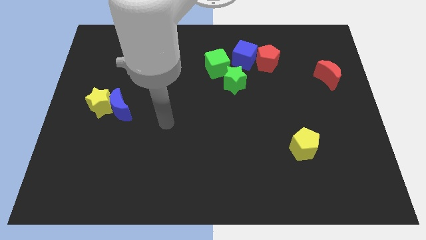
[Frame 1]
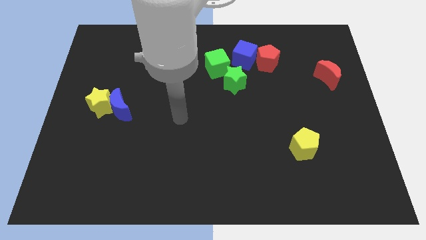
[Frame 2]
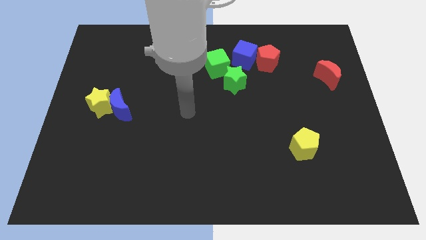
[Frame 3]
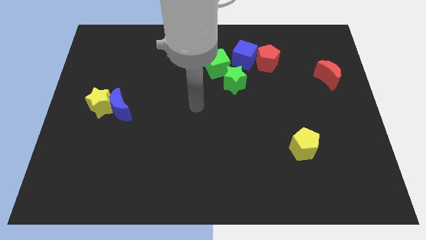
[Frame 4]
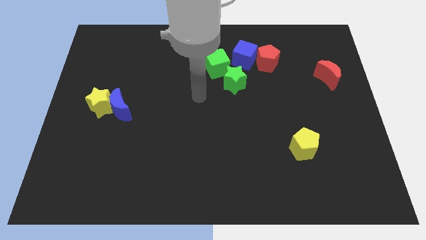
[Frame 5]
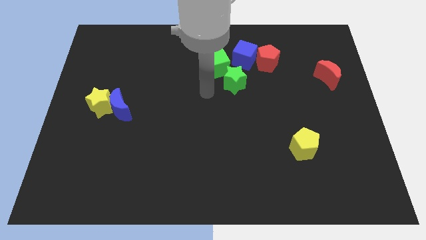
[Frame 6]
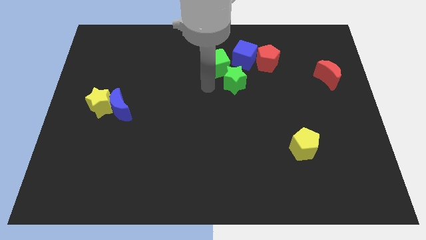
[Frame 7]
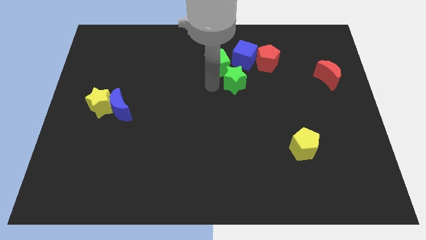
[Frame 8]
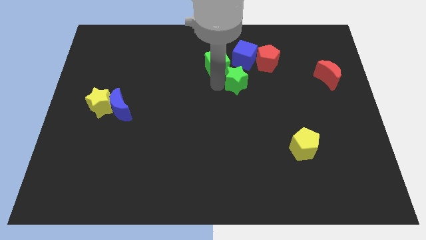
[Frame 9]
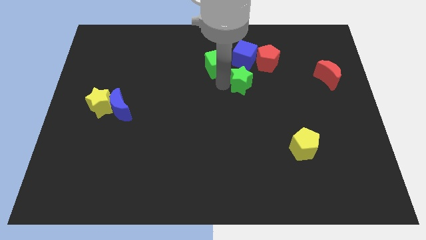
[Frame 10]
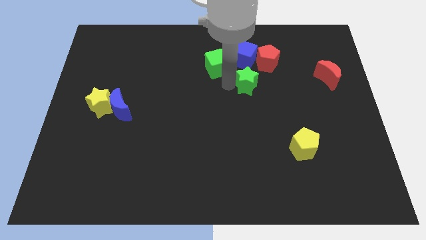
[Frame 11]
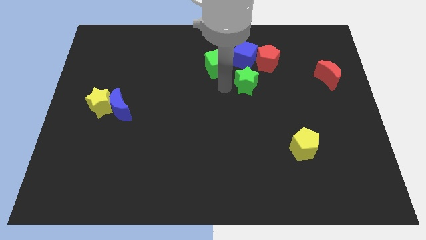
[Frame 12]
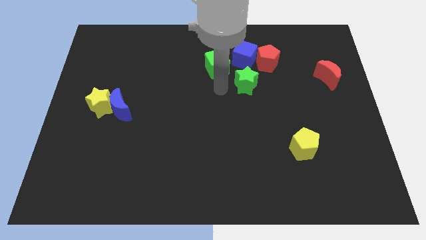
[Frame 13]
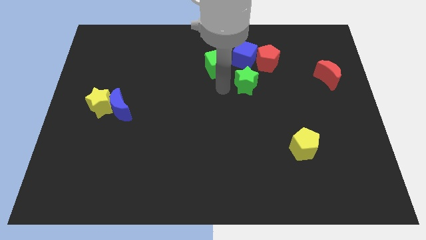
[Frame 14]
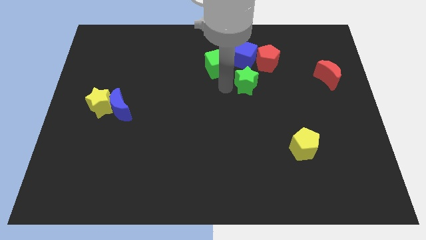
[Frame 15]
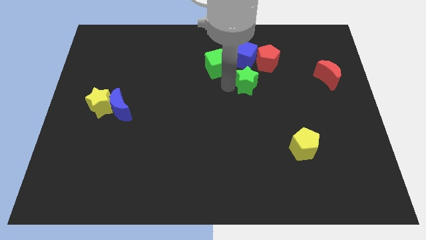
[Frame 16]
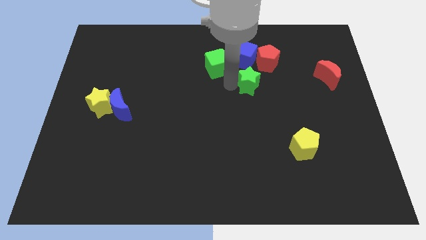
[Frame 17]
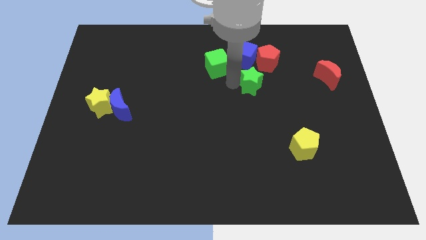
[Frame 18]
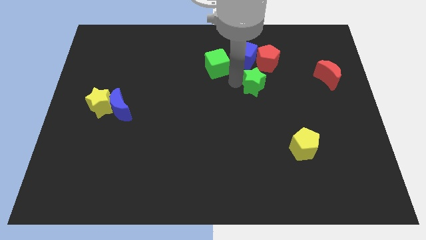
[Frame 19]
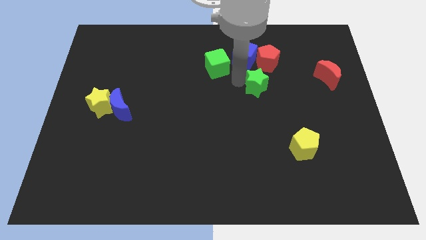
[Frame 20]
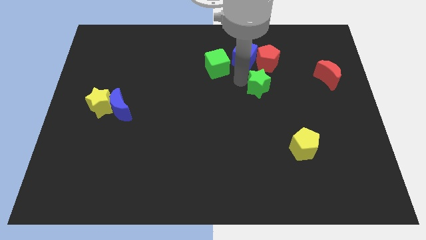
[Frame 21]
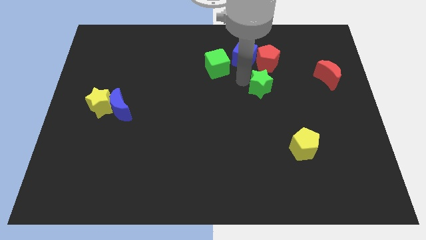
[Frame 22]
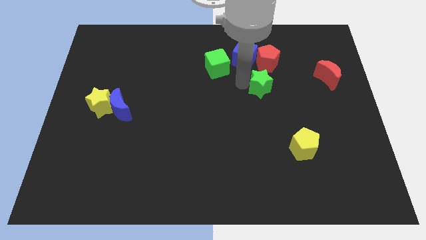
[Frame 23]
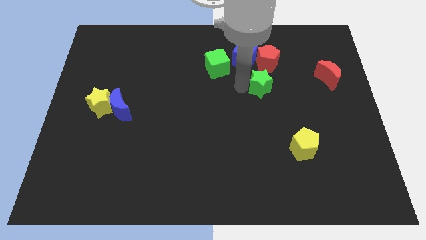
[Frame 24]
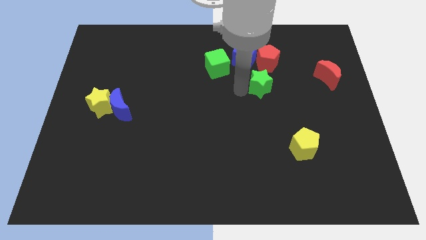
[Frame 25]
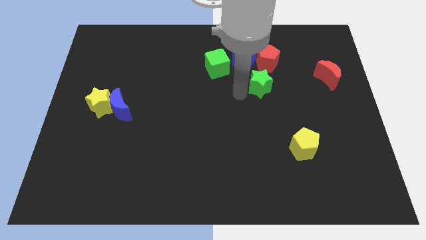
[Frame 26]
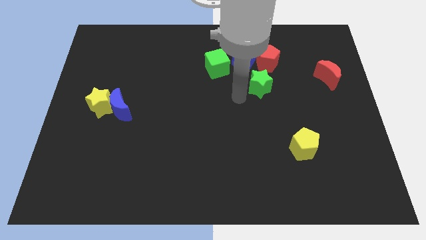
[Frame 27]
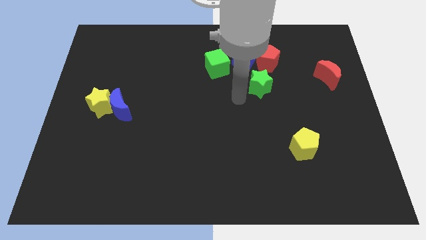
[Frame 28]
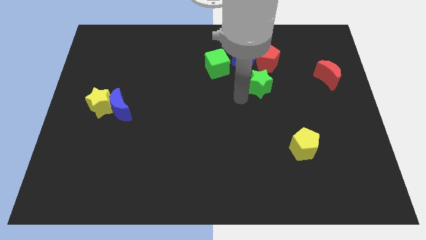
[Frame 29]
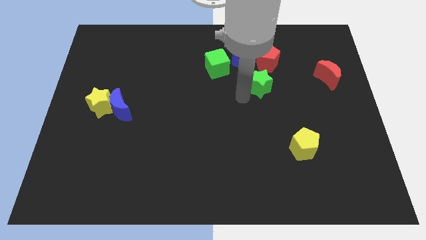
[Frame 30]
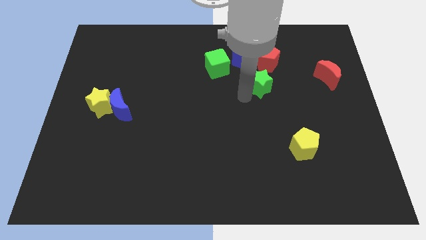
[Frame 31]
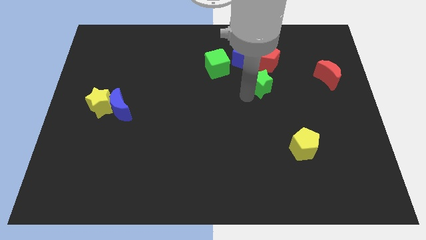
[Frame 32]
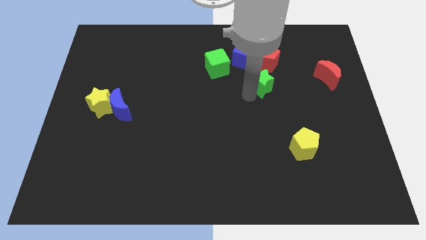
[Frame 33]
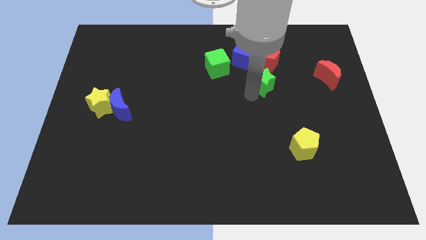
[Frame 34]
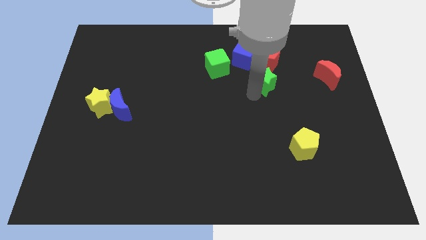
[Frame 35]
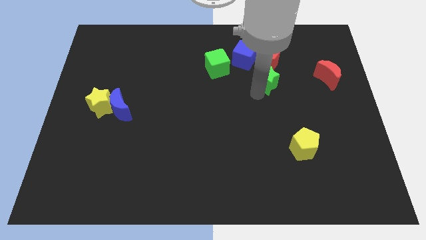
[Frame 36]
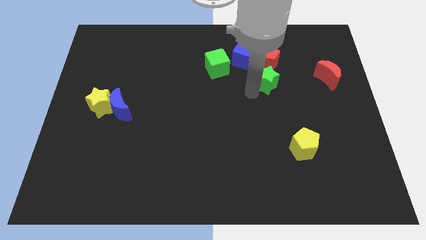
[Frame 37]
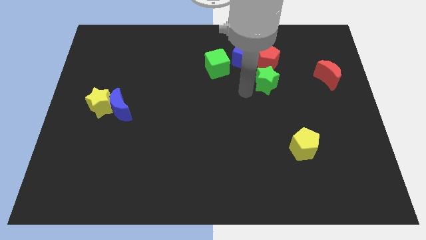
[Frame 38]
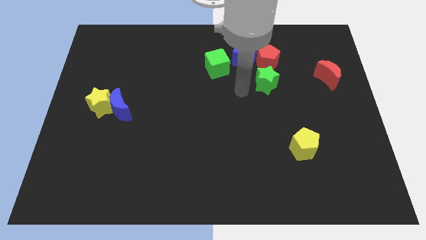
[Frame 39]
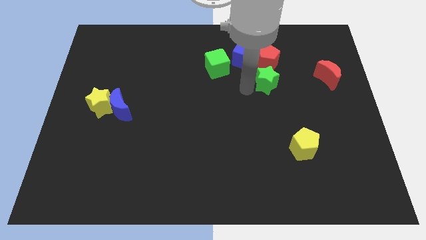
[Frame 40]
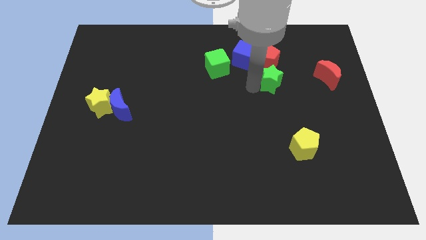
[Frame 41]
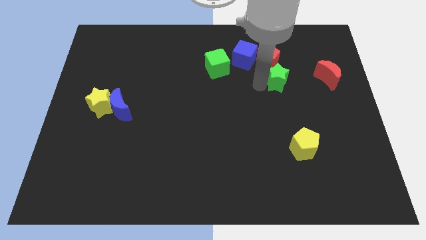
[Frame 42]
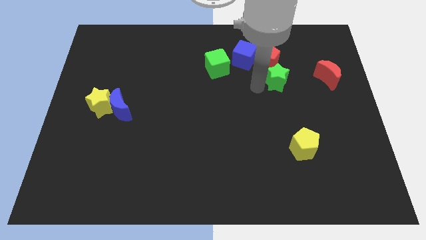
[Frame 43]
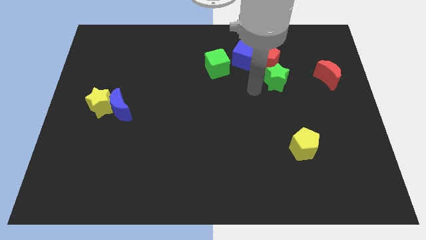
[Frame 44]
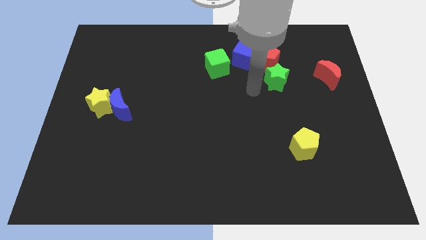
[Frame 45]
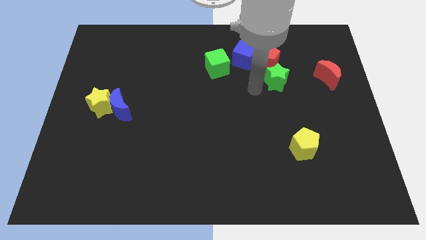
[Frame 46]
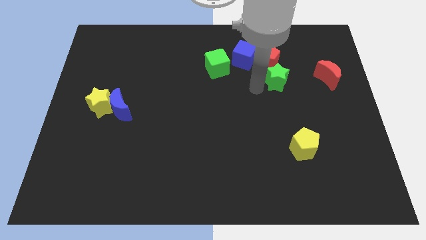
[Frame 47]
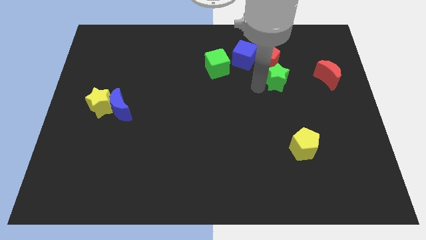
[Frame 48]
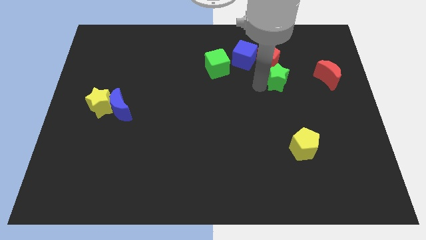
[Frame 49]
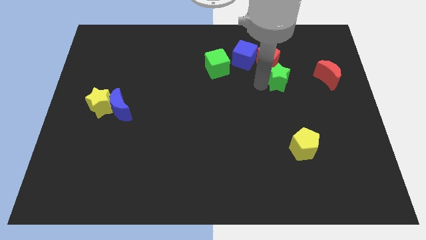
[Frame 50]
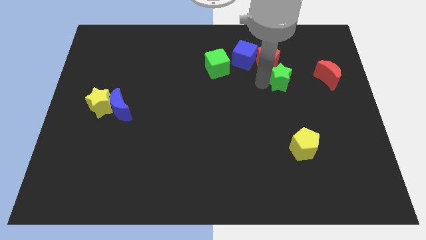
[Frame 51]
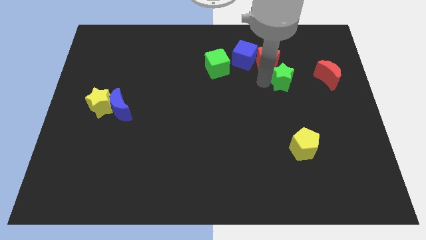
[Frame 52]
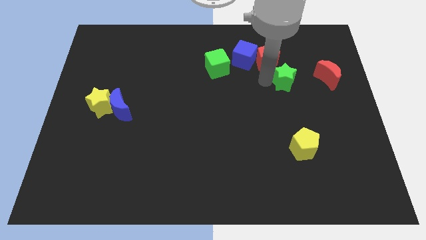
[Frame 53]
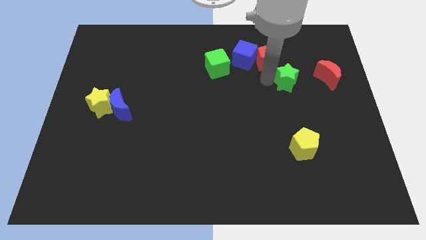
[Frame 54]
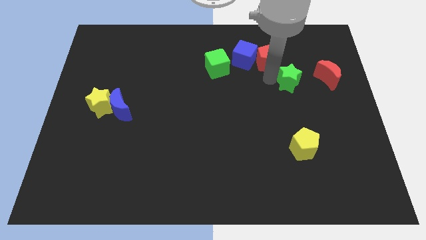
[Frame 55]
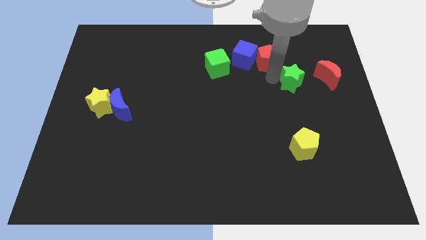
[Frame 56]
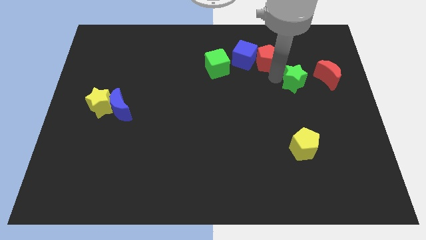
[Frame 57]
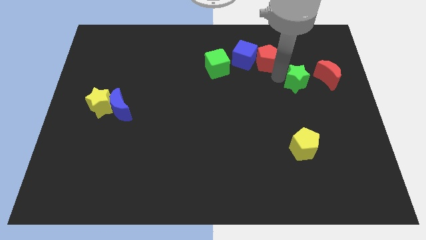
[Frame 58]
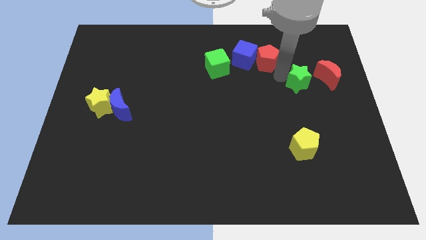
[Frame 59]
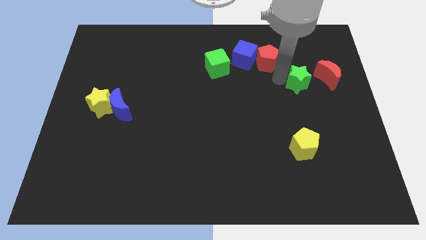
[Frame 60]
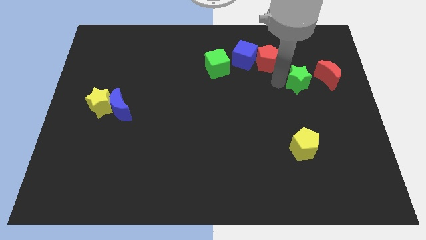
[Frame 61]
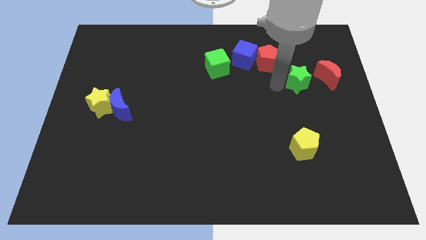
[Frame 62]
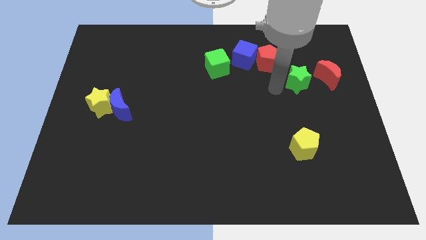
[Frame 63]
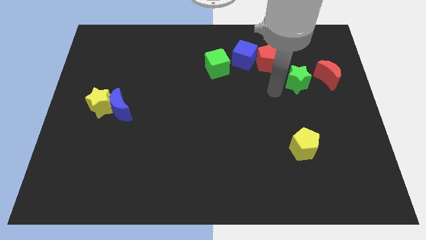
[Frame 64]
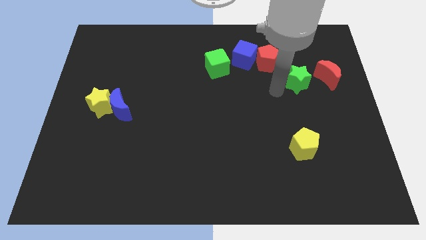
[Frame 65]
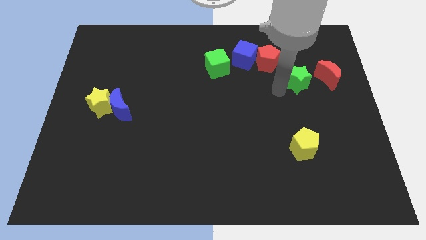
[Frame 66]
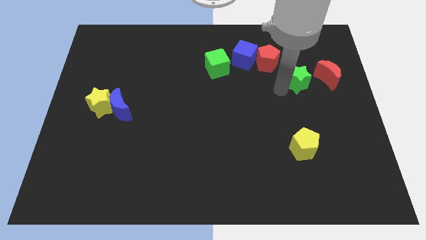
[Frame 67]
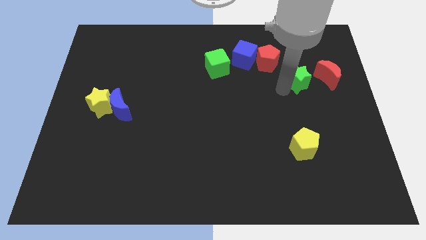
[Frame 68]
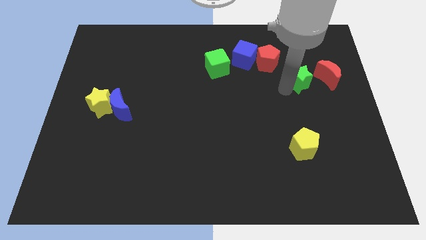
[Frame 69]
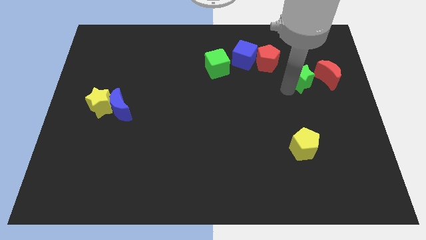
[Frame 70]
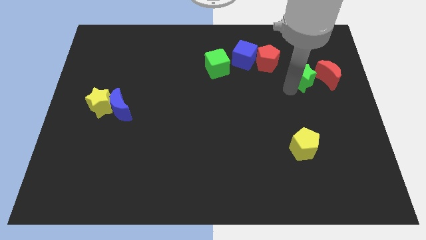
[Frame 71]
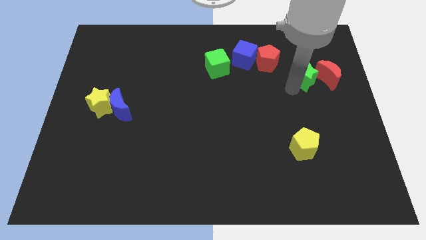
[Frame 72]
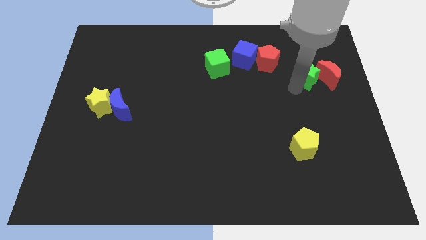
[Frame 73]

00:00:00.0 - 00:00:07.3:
push the green star to the red moon

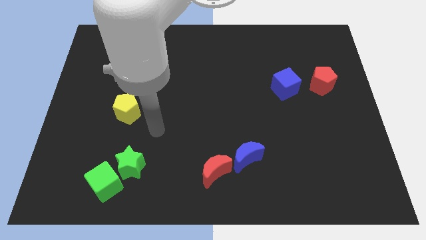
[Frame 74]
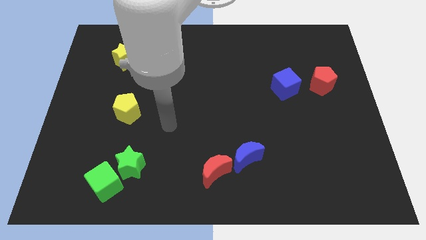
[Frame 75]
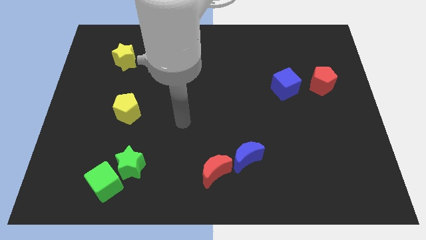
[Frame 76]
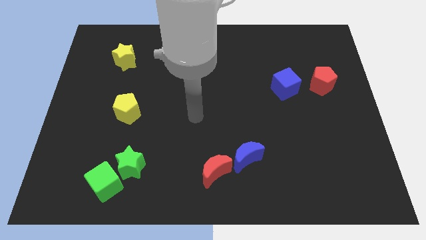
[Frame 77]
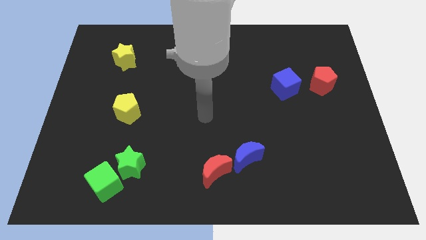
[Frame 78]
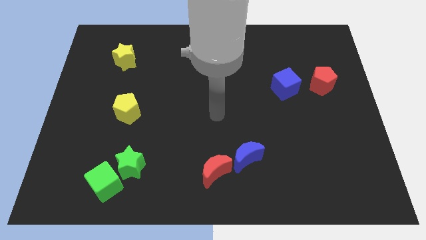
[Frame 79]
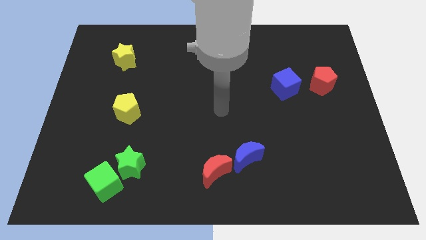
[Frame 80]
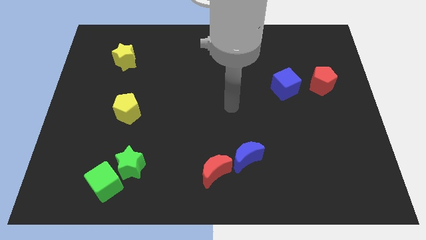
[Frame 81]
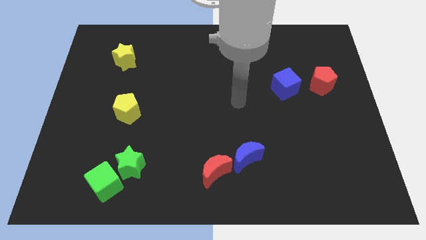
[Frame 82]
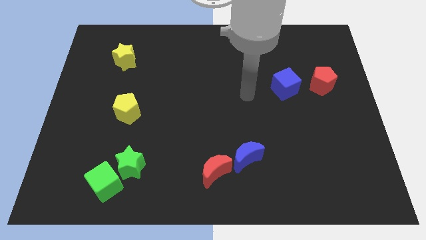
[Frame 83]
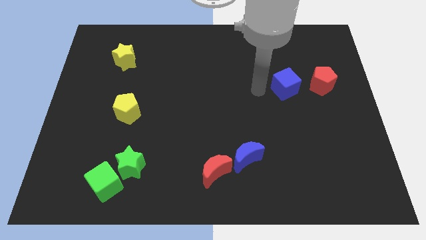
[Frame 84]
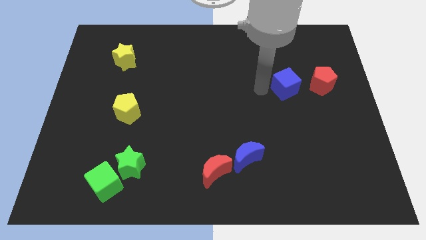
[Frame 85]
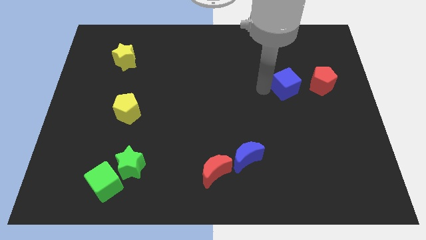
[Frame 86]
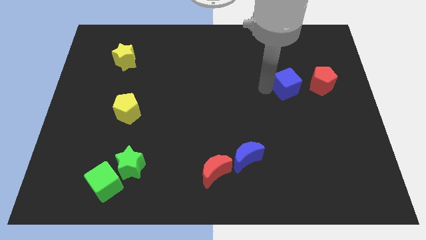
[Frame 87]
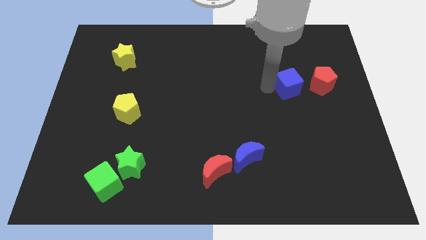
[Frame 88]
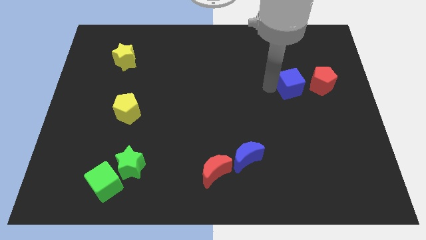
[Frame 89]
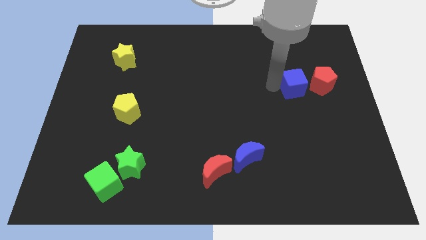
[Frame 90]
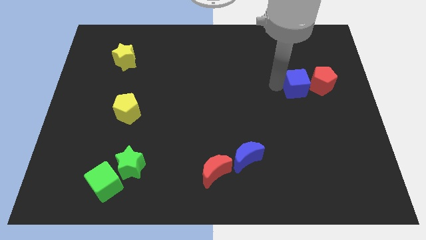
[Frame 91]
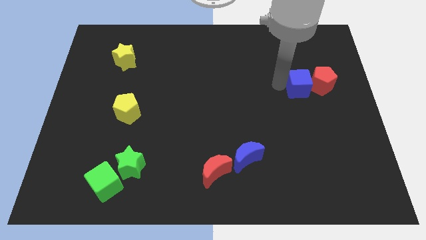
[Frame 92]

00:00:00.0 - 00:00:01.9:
move the blue cube close to the red pentagon
